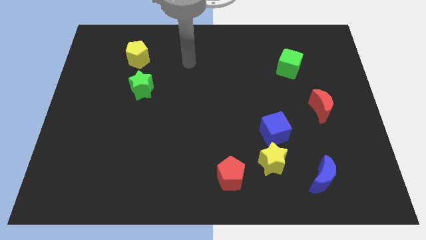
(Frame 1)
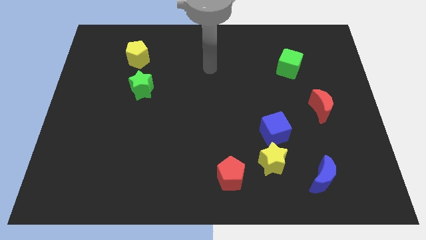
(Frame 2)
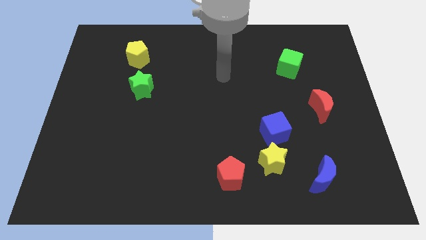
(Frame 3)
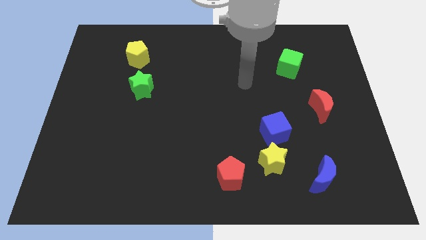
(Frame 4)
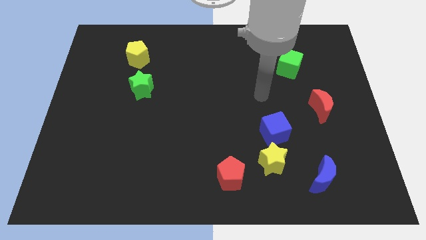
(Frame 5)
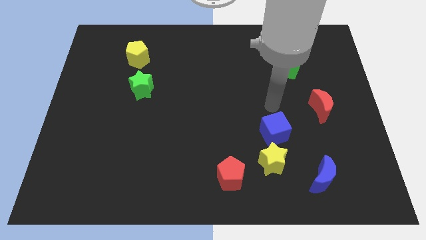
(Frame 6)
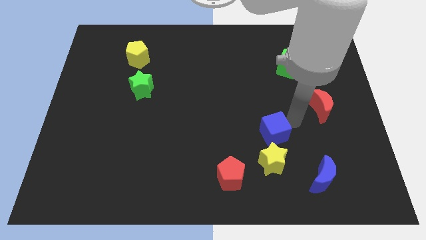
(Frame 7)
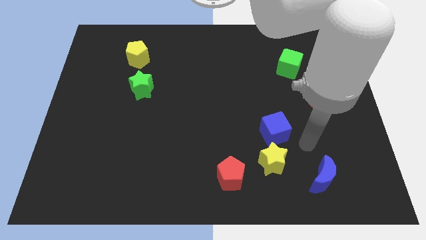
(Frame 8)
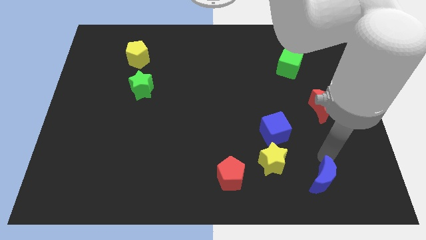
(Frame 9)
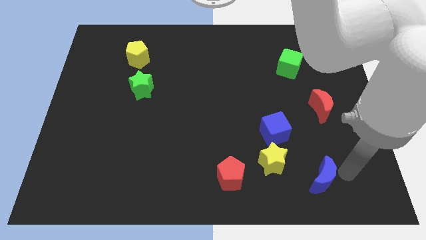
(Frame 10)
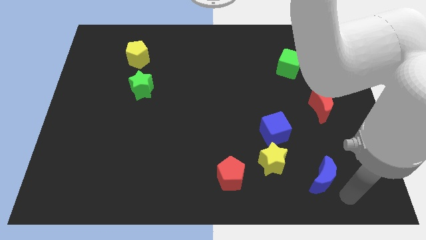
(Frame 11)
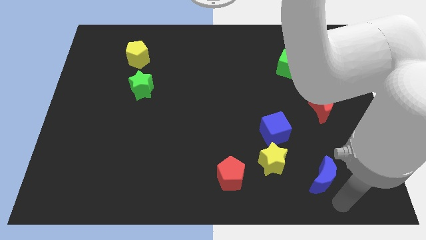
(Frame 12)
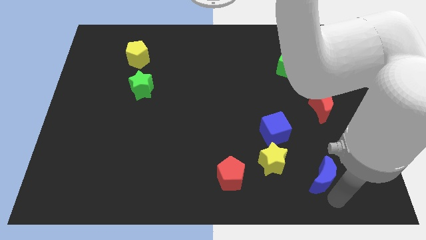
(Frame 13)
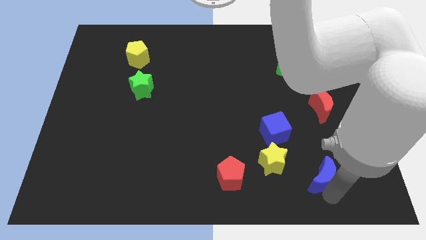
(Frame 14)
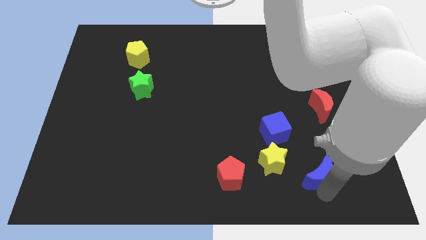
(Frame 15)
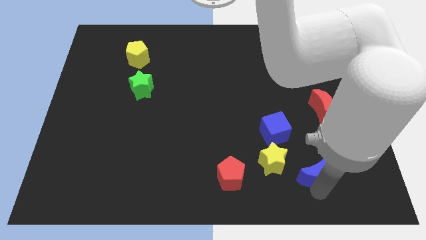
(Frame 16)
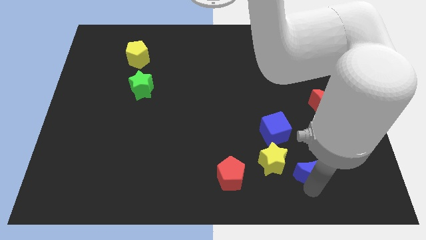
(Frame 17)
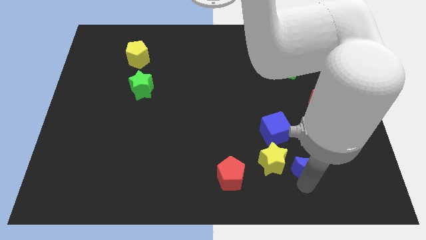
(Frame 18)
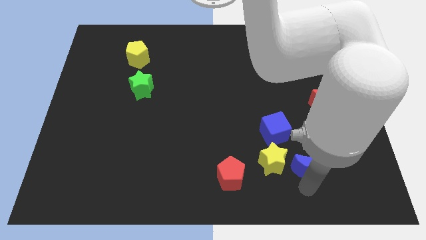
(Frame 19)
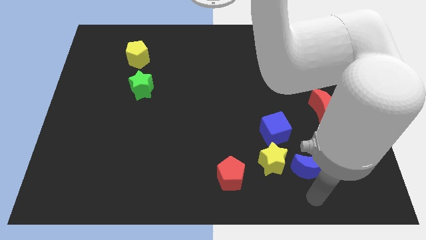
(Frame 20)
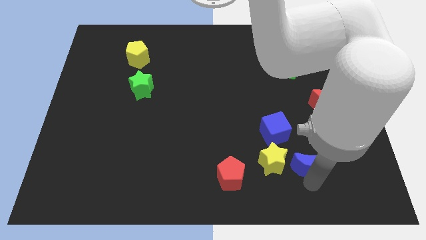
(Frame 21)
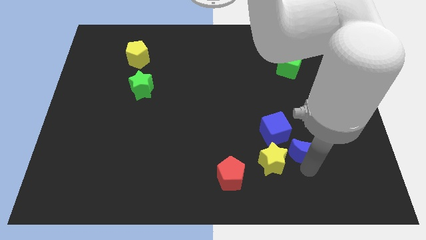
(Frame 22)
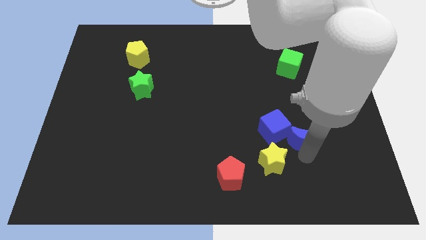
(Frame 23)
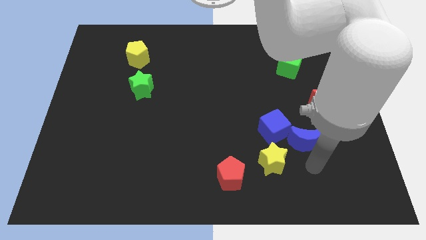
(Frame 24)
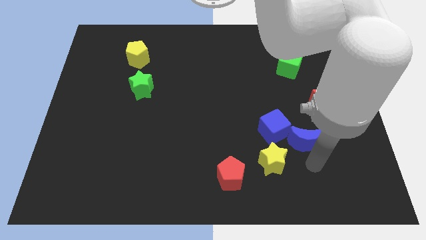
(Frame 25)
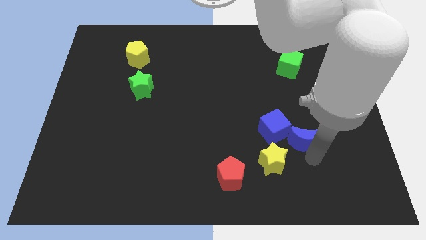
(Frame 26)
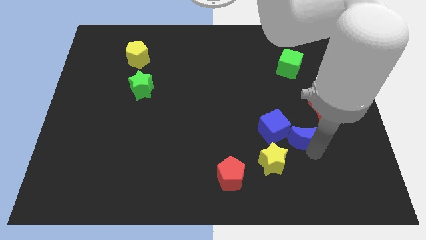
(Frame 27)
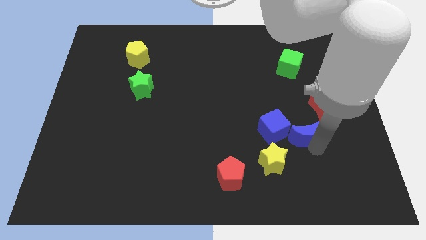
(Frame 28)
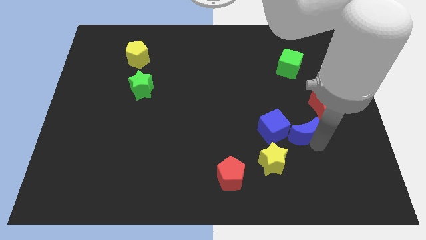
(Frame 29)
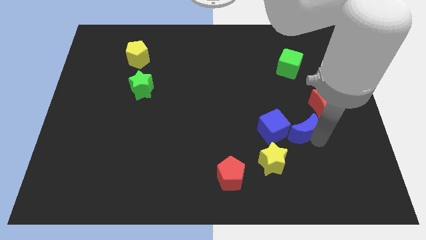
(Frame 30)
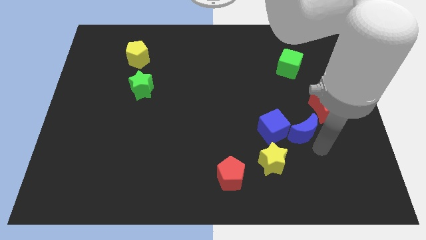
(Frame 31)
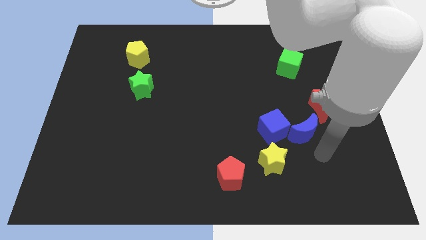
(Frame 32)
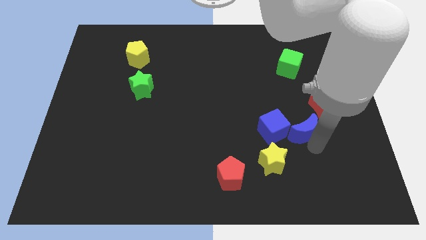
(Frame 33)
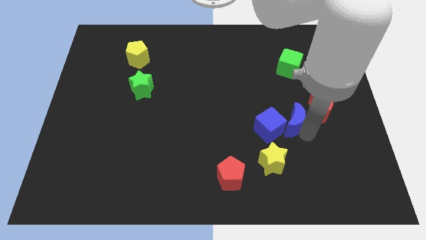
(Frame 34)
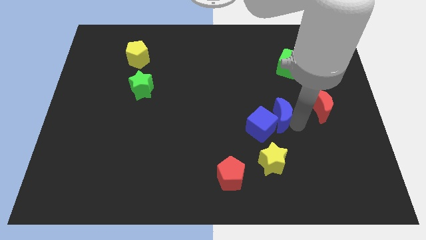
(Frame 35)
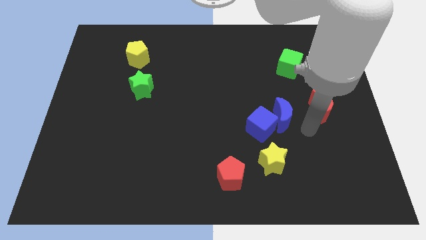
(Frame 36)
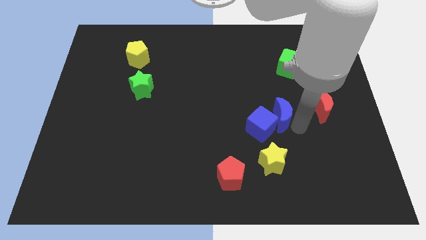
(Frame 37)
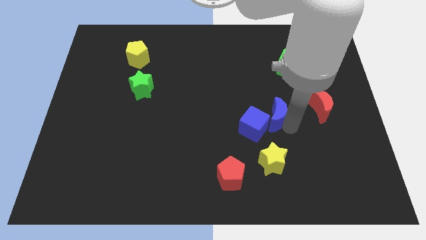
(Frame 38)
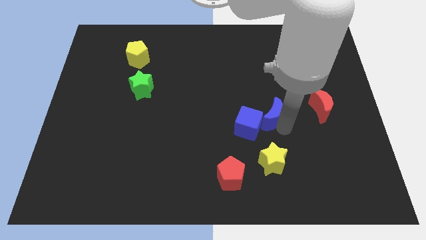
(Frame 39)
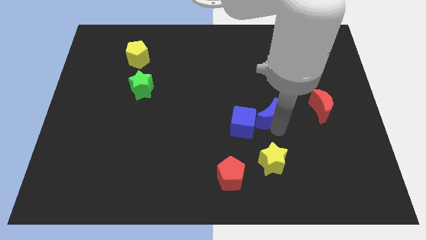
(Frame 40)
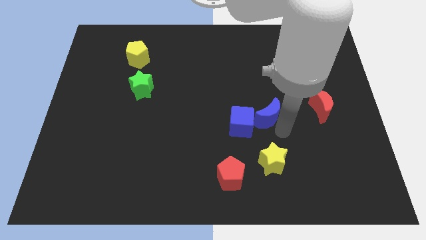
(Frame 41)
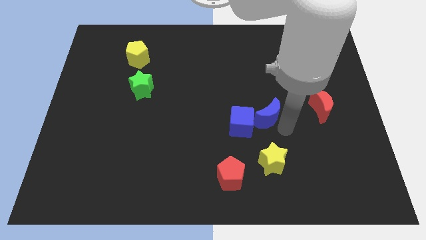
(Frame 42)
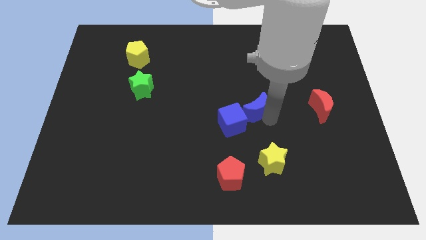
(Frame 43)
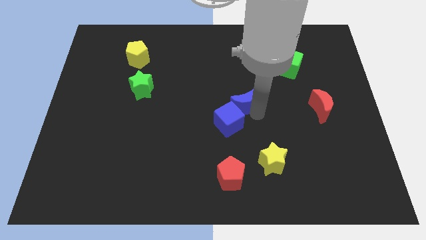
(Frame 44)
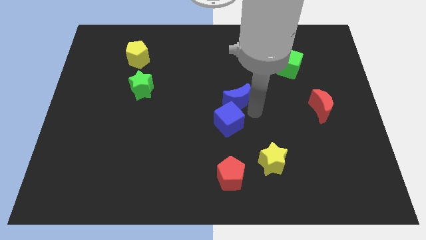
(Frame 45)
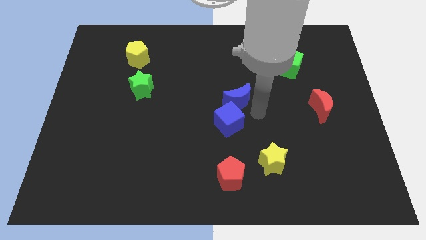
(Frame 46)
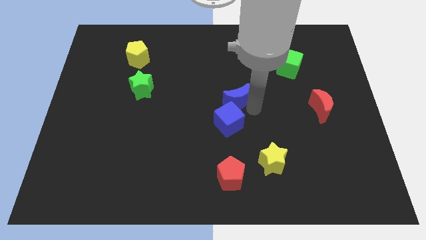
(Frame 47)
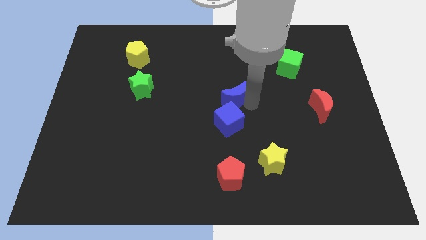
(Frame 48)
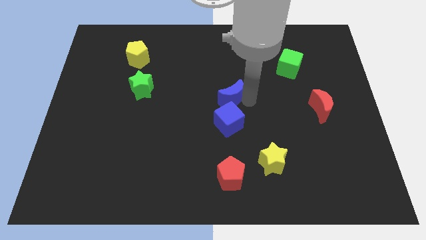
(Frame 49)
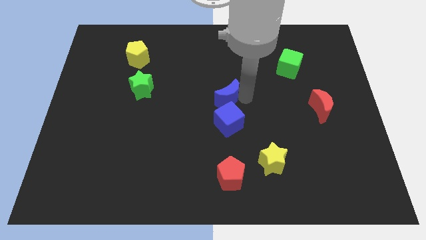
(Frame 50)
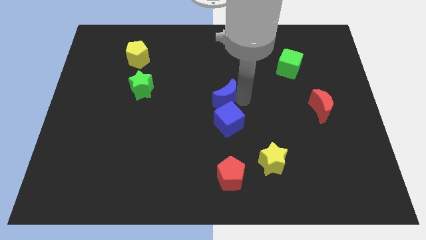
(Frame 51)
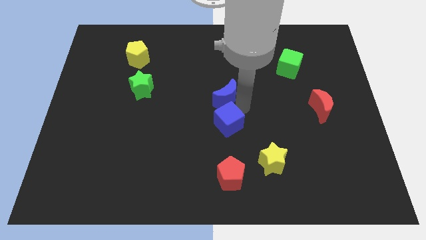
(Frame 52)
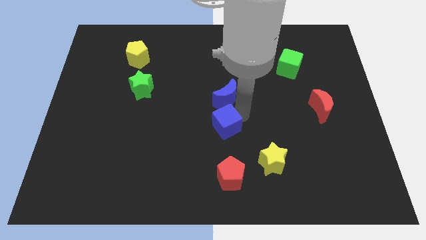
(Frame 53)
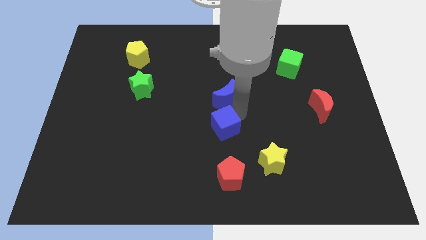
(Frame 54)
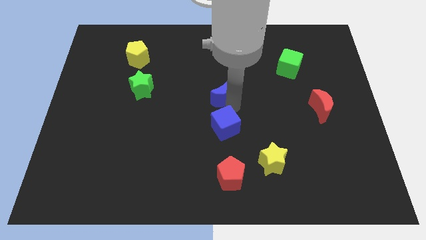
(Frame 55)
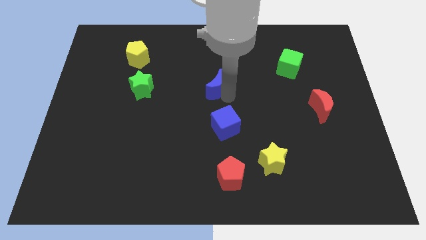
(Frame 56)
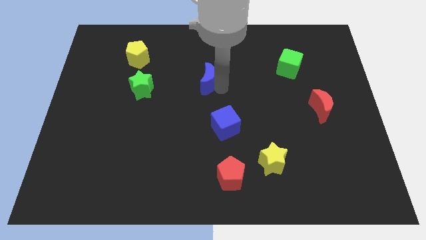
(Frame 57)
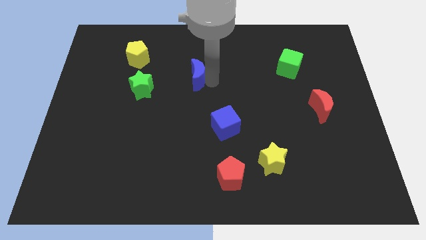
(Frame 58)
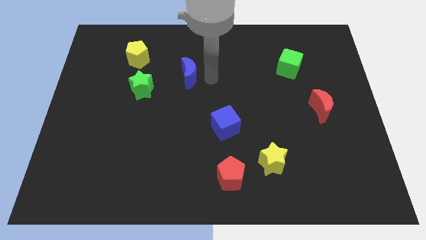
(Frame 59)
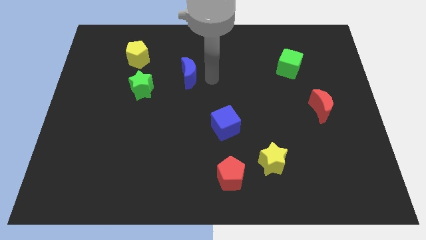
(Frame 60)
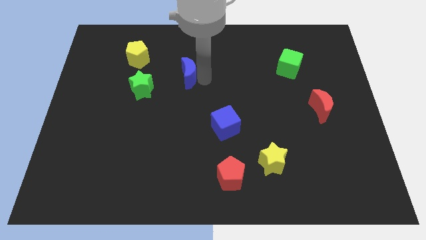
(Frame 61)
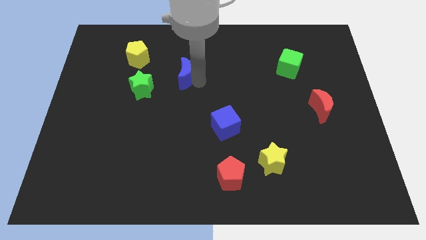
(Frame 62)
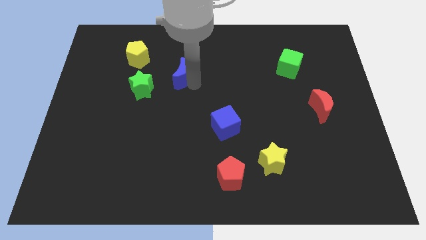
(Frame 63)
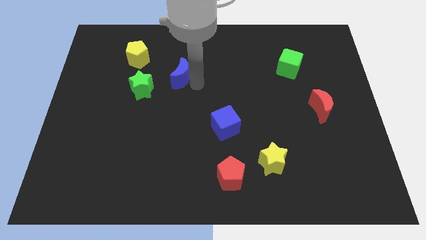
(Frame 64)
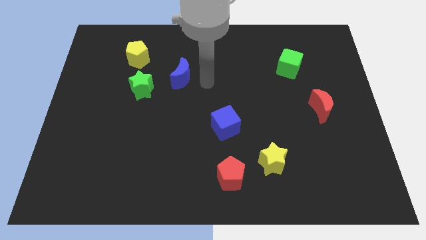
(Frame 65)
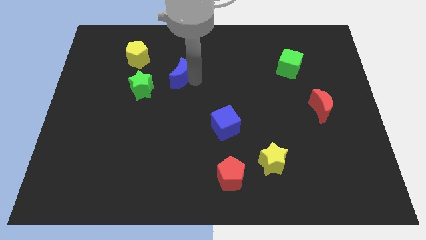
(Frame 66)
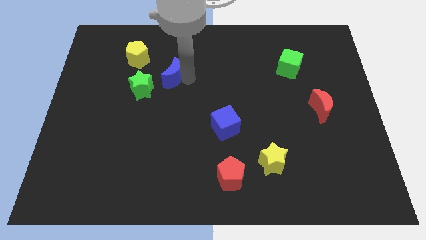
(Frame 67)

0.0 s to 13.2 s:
push the blue moon diagonally down and to the right of the yellow pentagon
